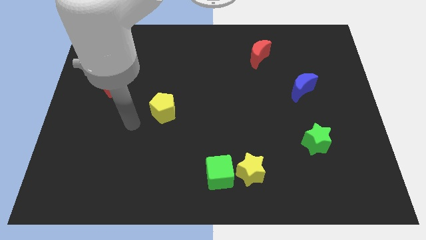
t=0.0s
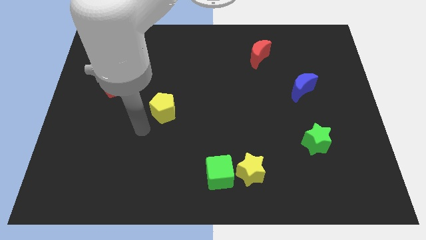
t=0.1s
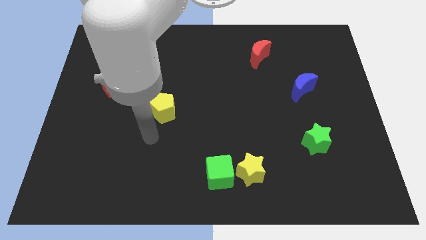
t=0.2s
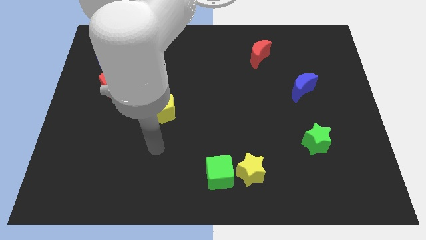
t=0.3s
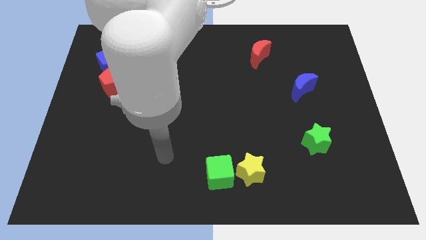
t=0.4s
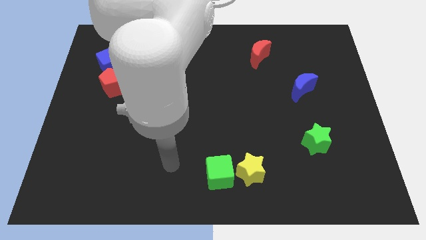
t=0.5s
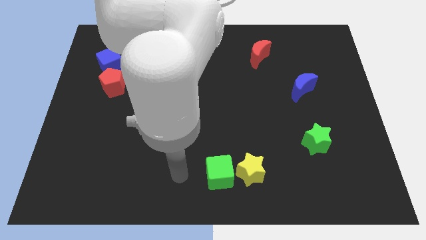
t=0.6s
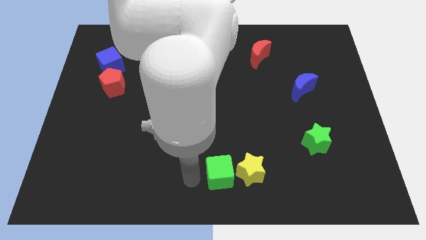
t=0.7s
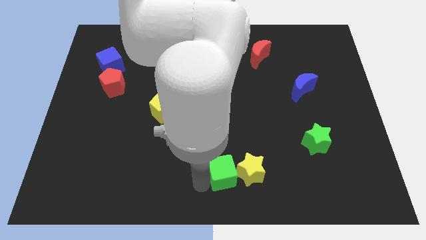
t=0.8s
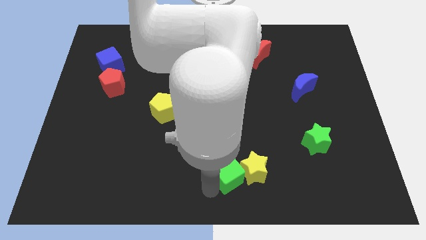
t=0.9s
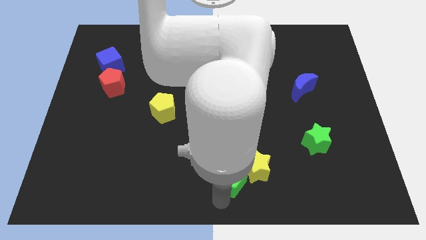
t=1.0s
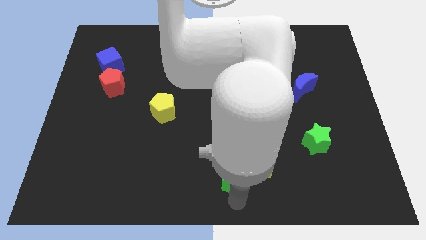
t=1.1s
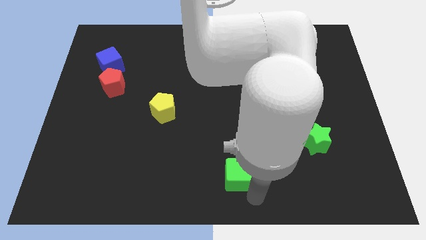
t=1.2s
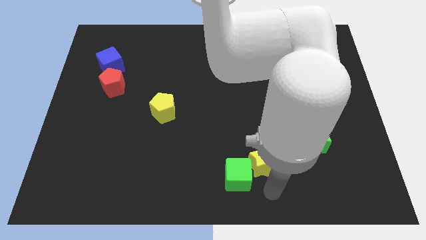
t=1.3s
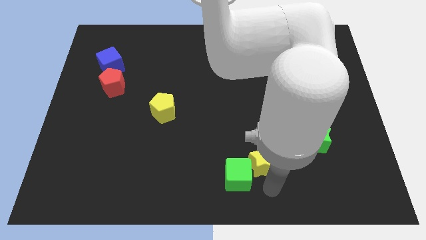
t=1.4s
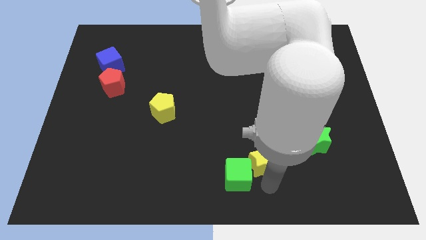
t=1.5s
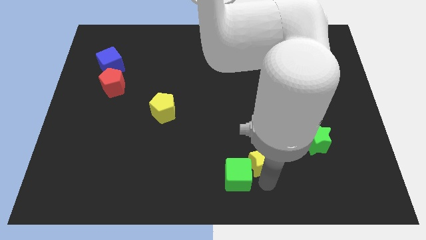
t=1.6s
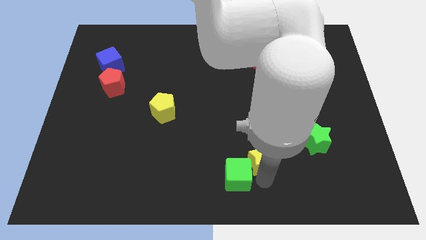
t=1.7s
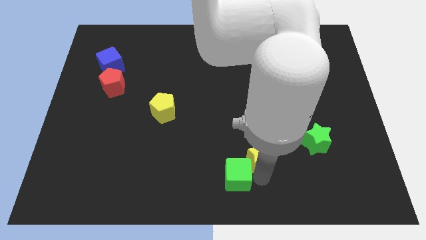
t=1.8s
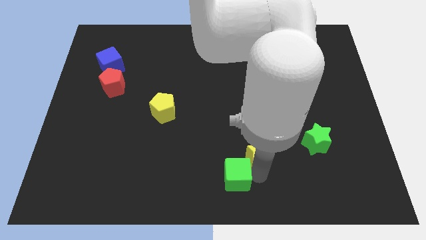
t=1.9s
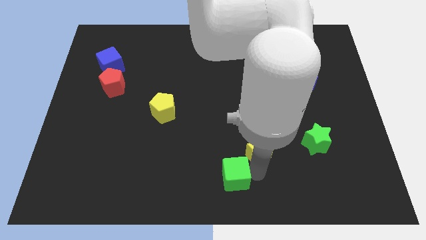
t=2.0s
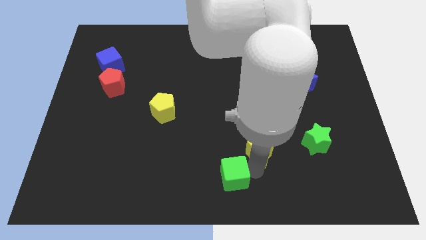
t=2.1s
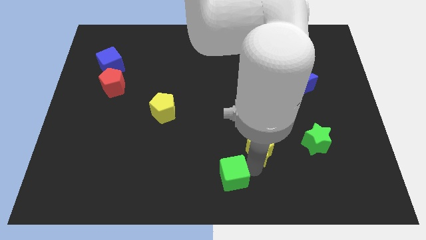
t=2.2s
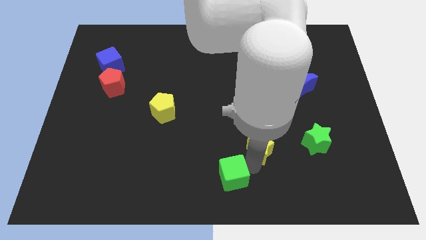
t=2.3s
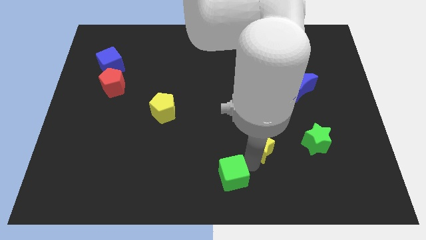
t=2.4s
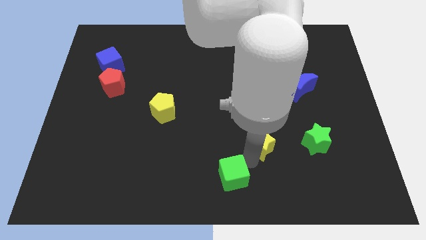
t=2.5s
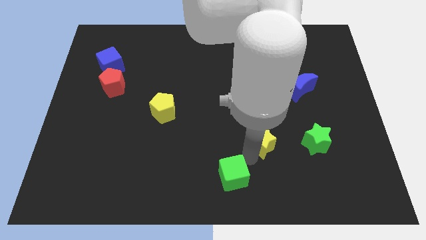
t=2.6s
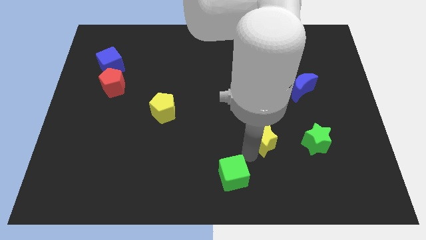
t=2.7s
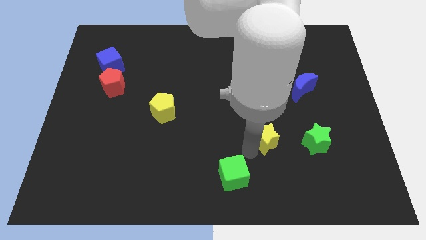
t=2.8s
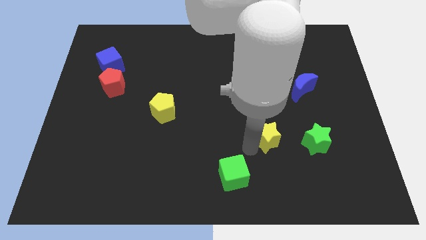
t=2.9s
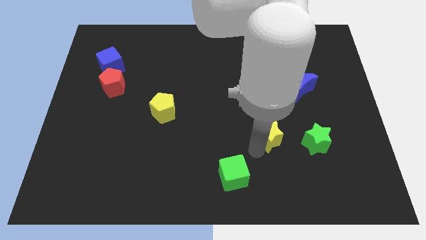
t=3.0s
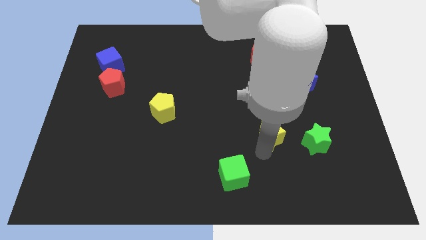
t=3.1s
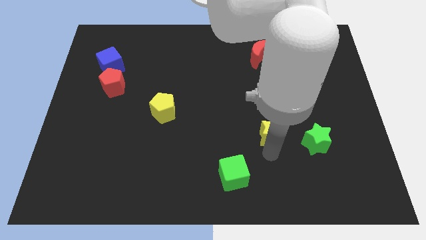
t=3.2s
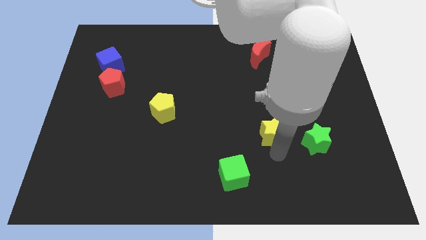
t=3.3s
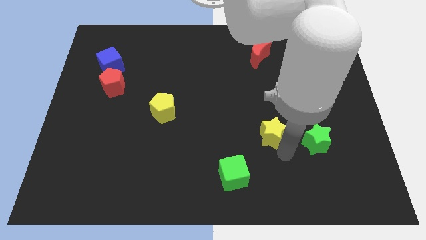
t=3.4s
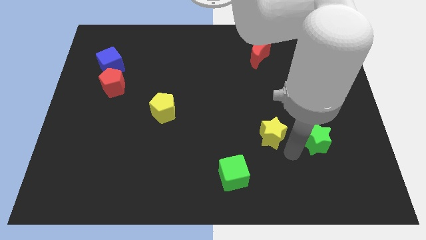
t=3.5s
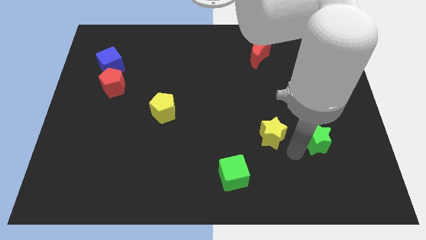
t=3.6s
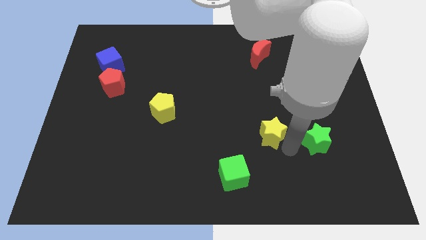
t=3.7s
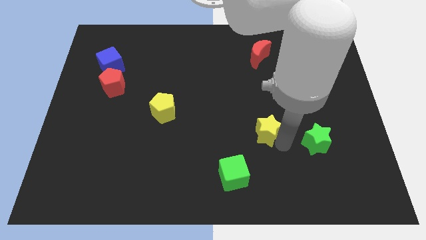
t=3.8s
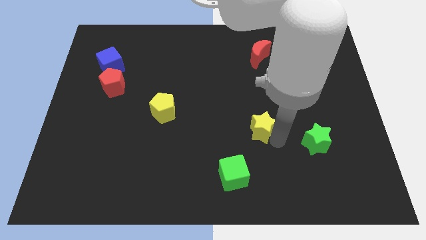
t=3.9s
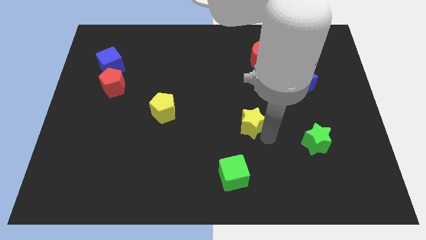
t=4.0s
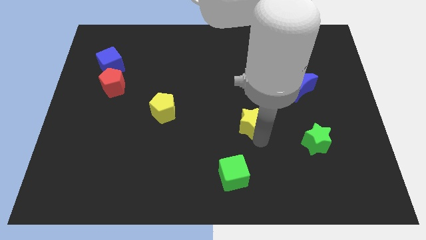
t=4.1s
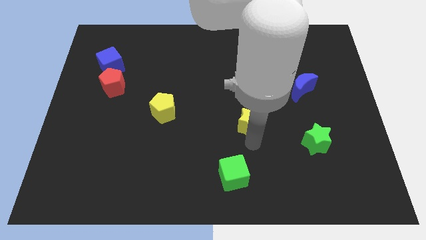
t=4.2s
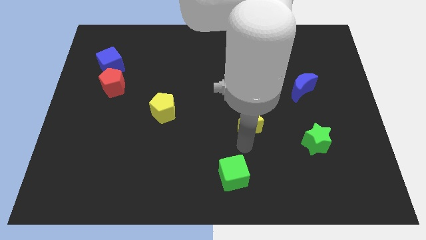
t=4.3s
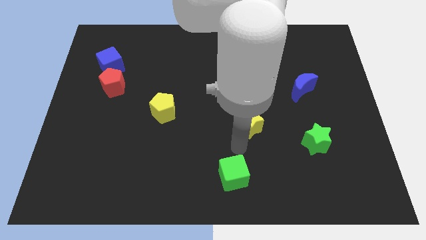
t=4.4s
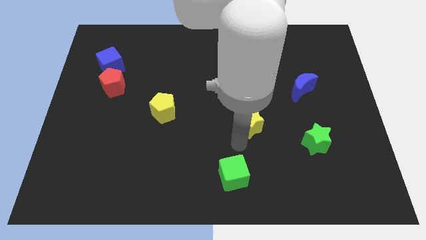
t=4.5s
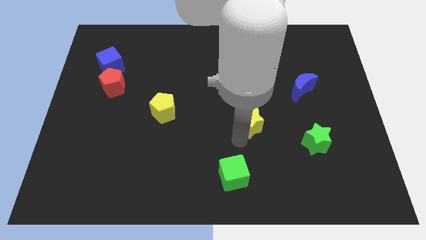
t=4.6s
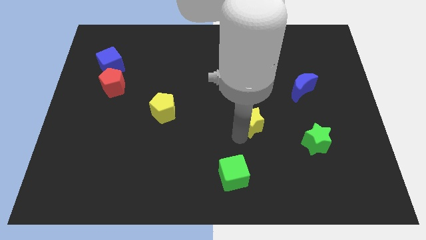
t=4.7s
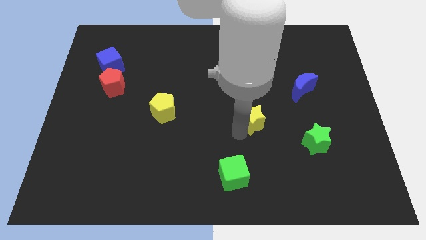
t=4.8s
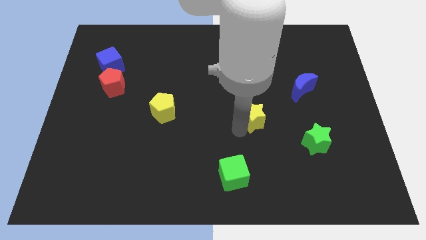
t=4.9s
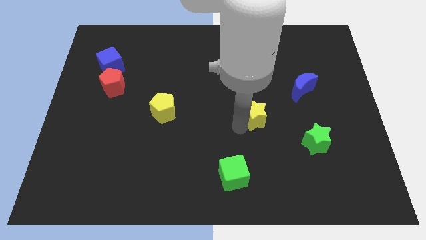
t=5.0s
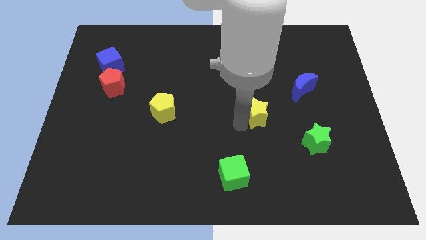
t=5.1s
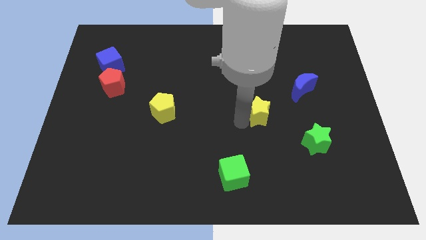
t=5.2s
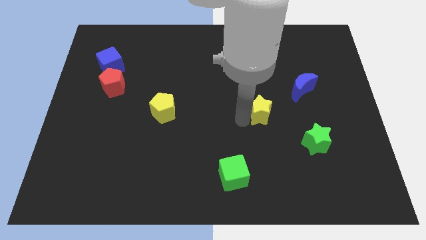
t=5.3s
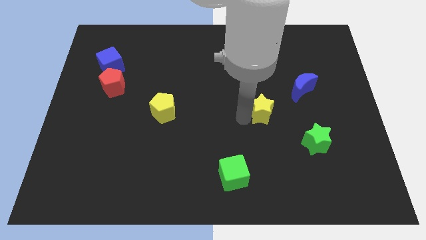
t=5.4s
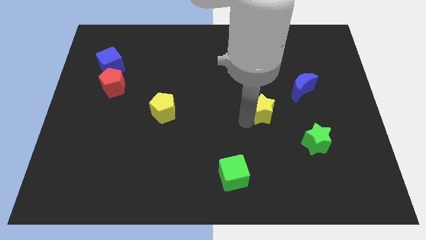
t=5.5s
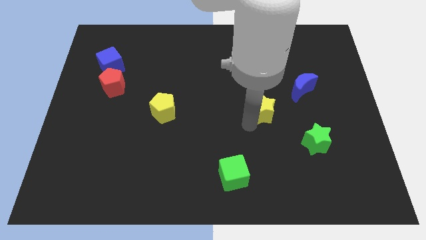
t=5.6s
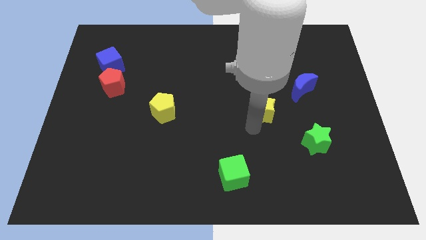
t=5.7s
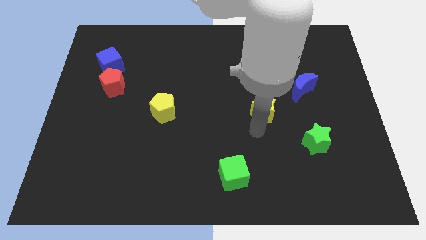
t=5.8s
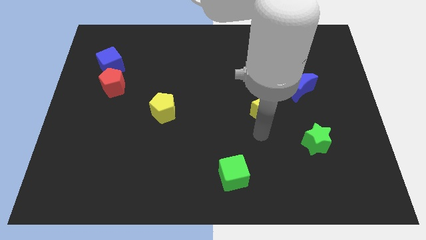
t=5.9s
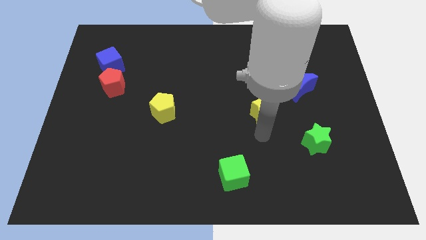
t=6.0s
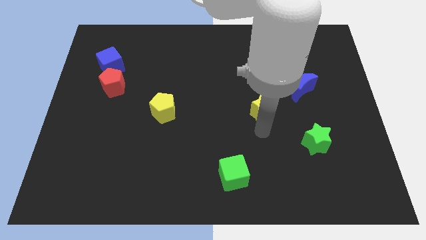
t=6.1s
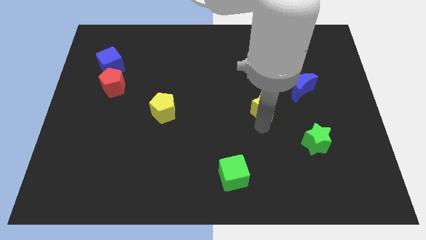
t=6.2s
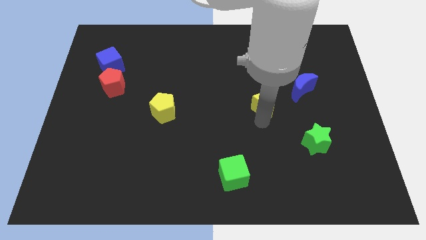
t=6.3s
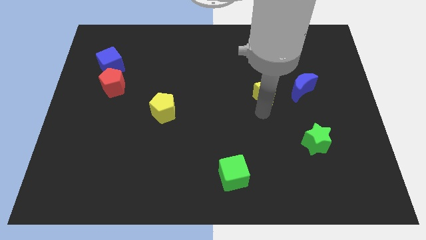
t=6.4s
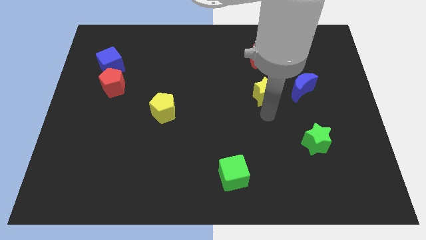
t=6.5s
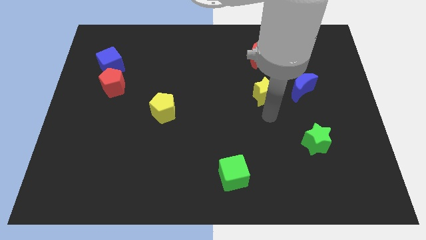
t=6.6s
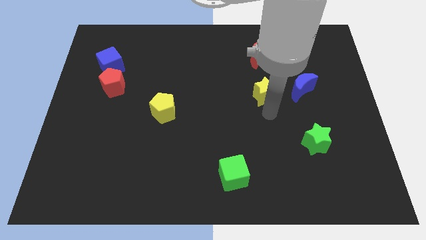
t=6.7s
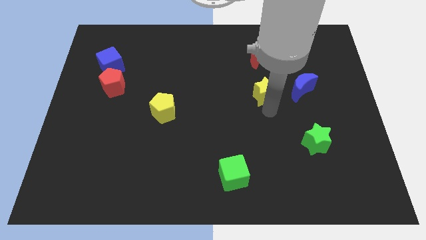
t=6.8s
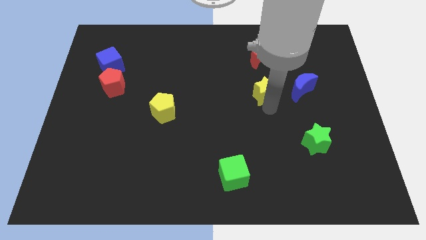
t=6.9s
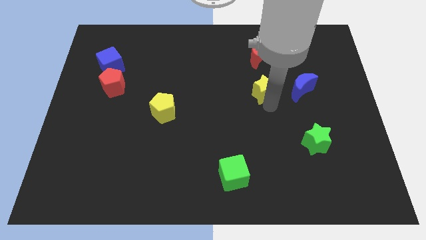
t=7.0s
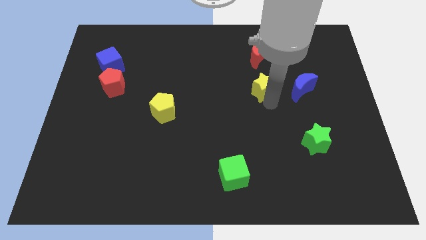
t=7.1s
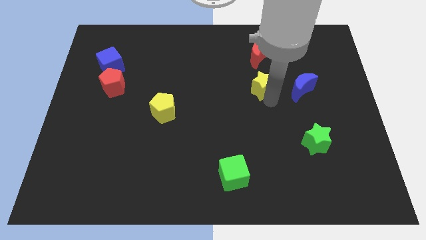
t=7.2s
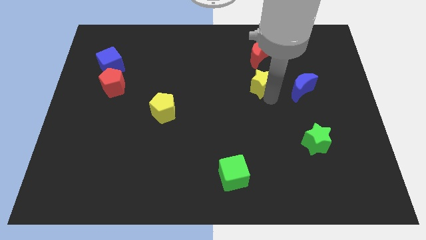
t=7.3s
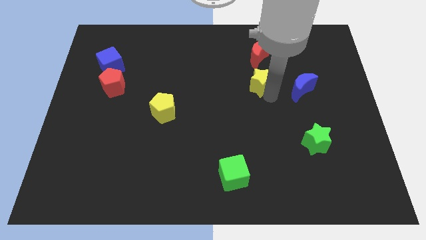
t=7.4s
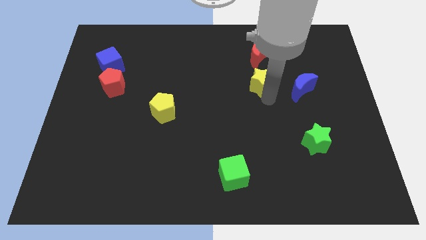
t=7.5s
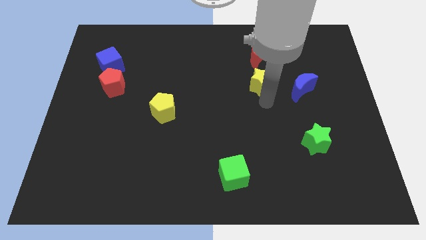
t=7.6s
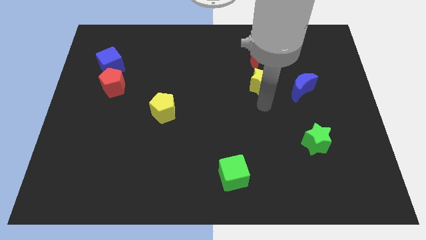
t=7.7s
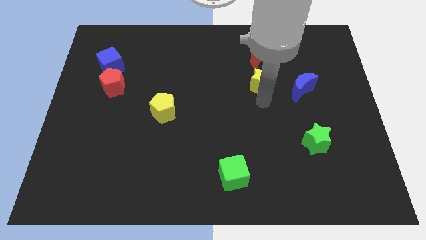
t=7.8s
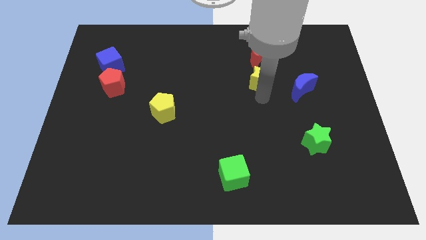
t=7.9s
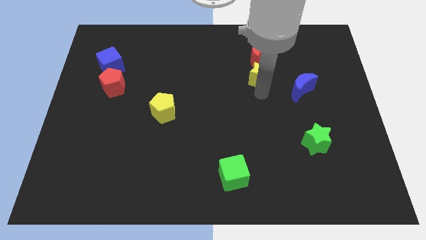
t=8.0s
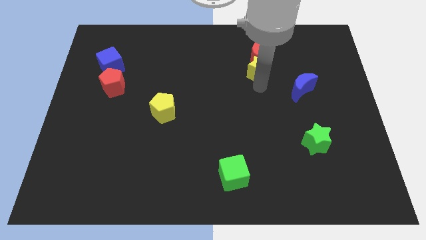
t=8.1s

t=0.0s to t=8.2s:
move the yellow star towards the red moon
